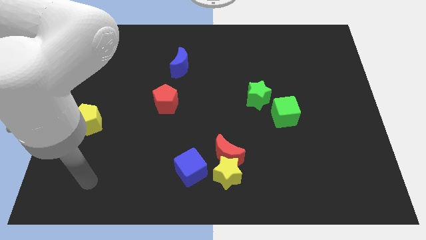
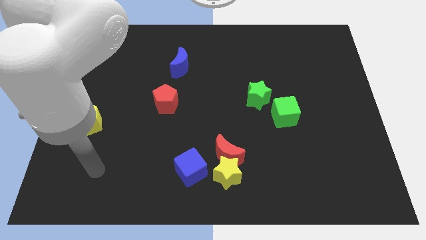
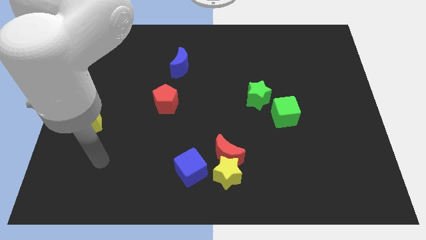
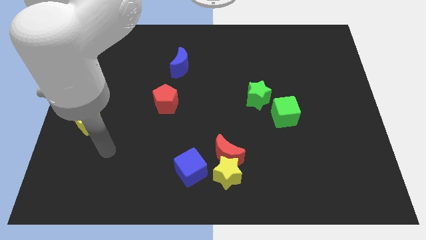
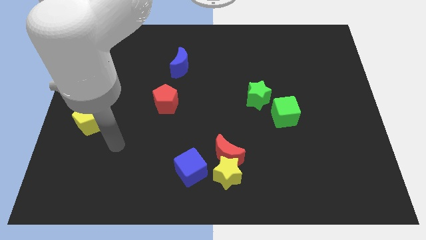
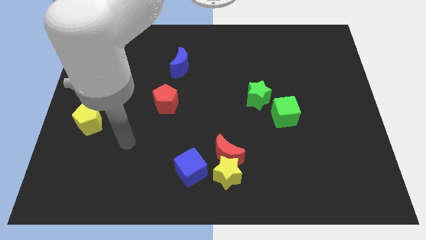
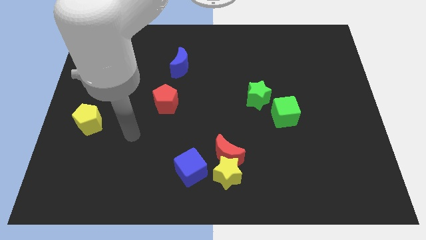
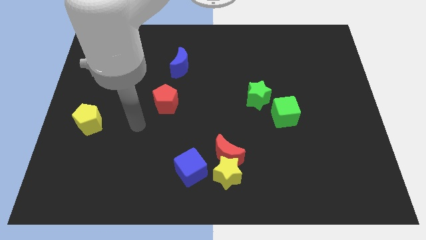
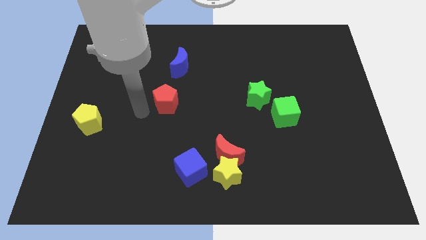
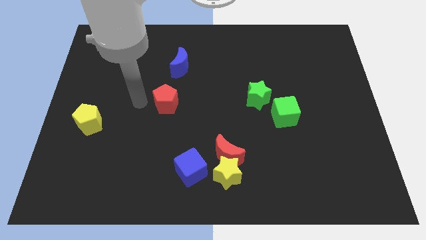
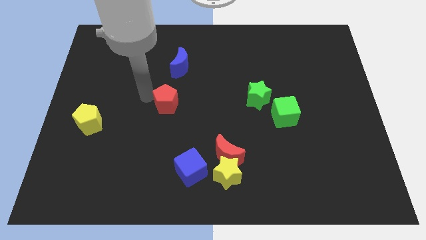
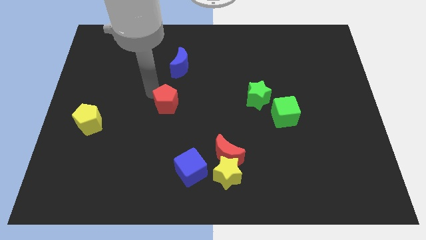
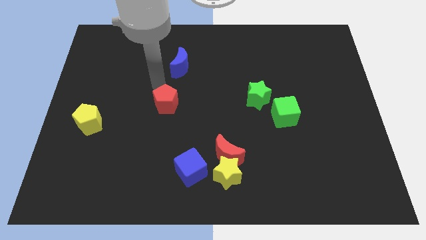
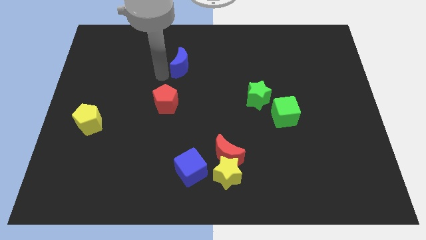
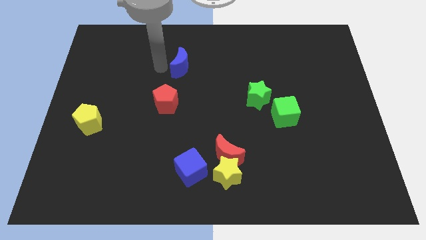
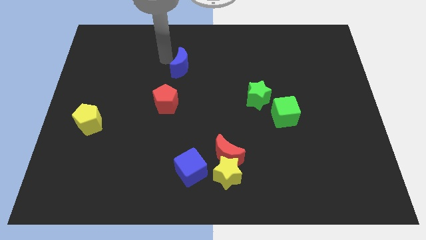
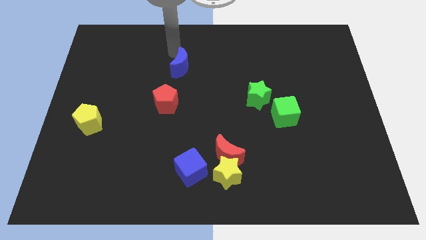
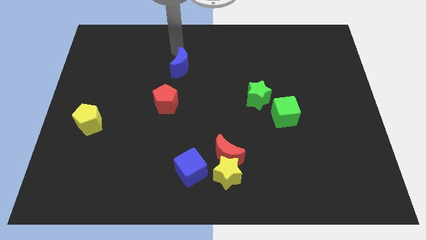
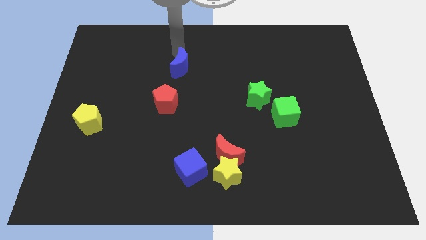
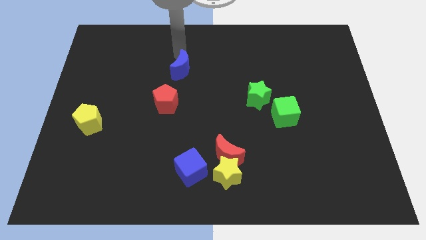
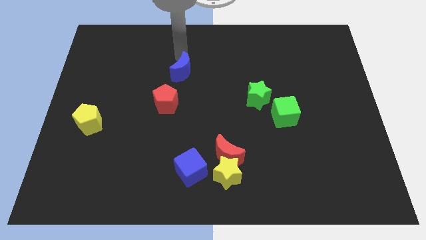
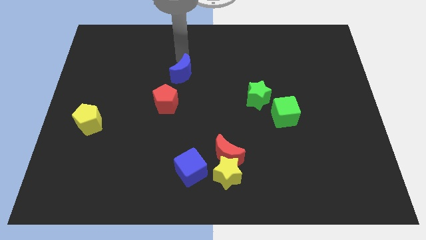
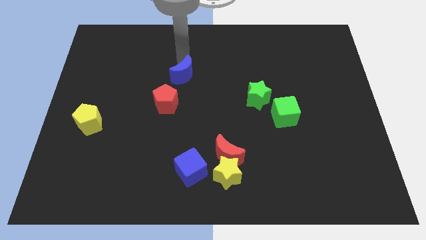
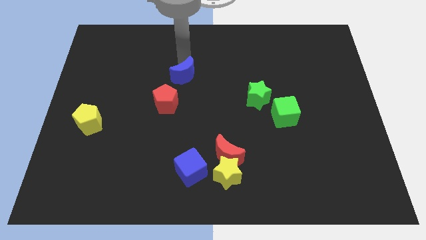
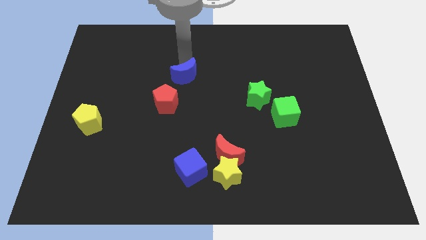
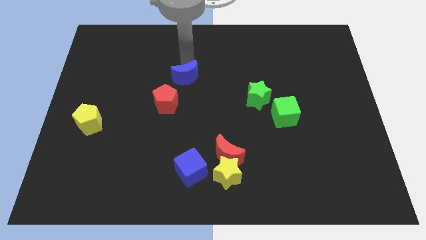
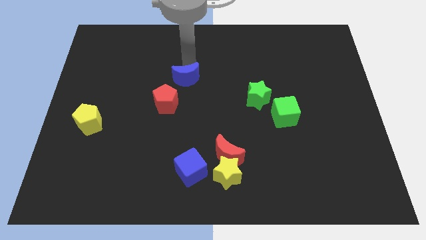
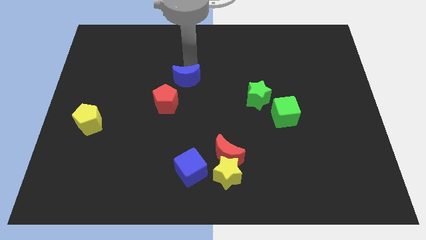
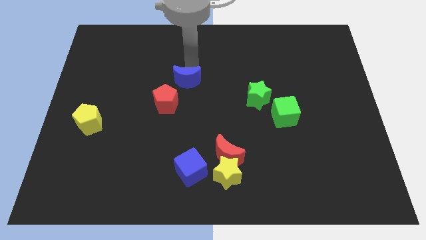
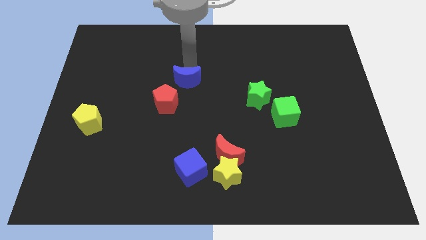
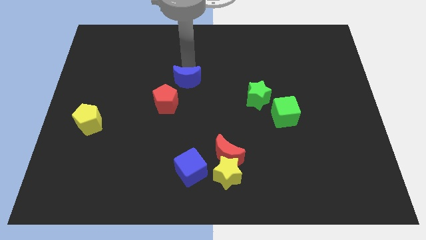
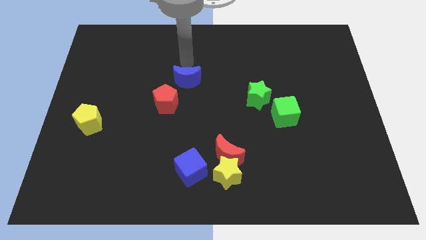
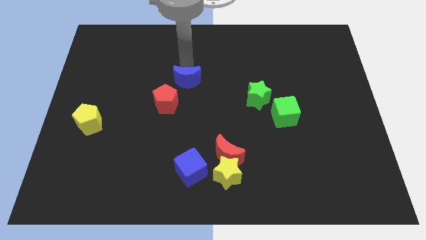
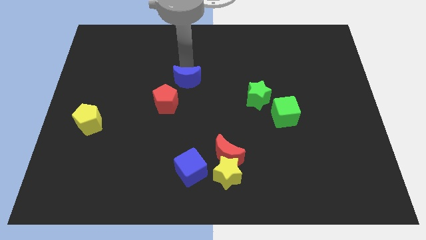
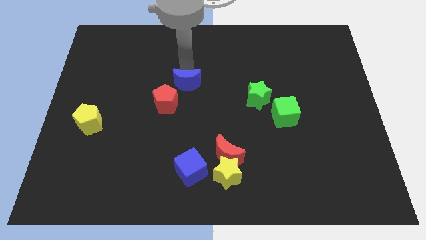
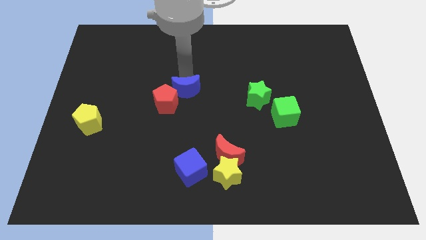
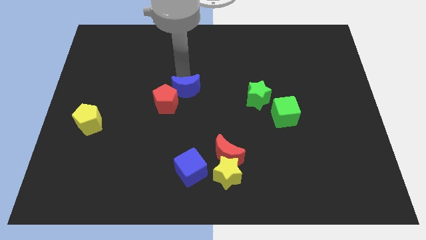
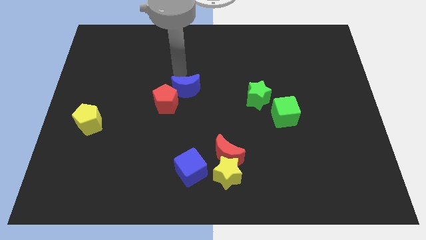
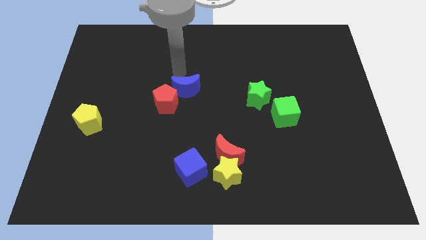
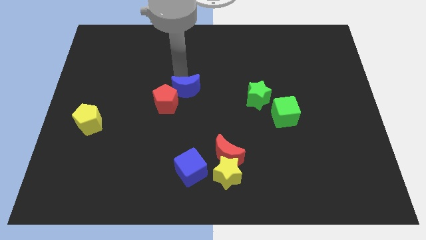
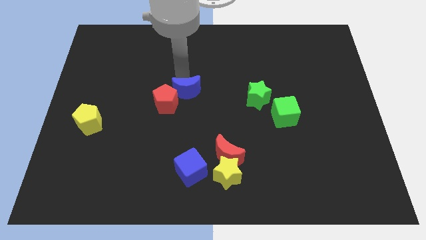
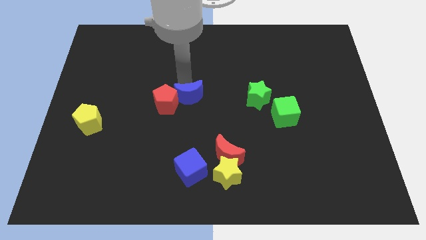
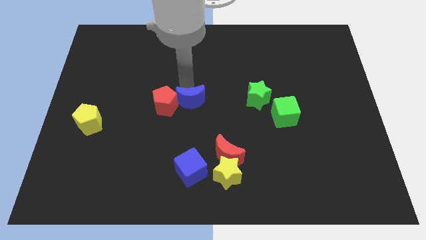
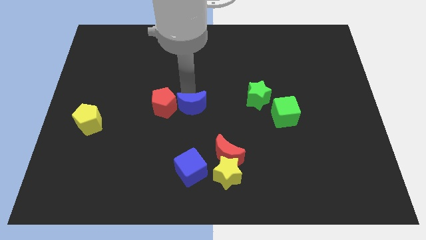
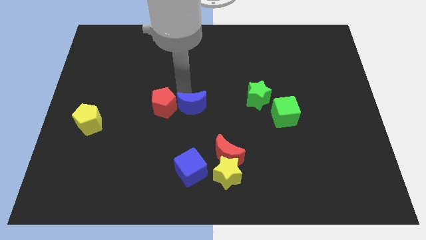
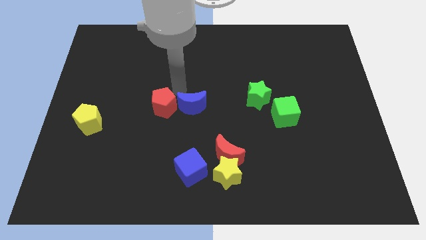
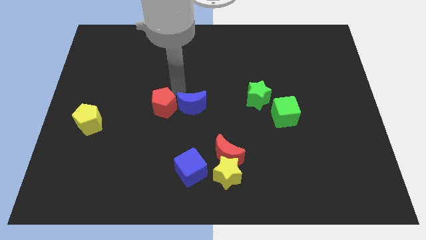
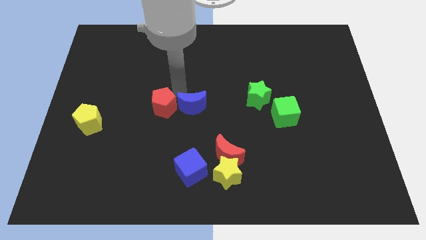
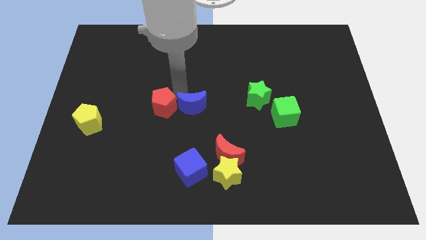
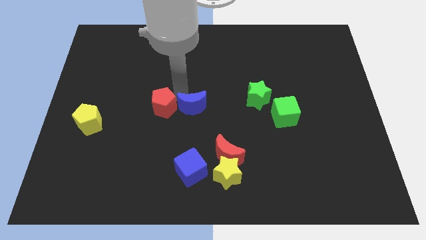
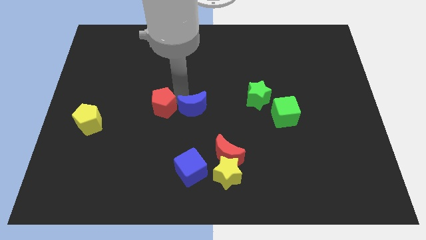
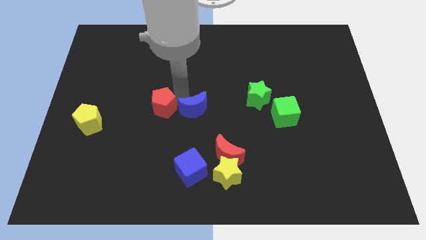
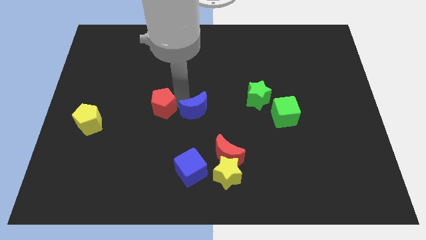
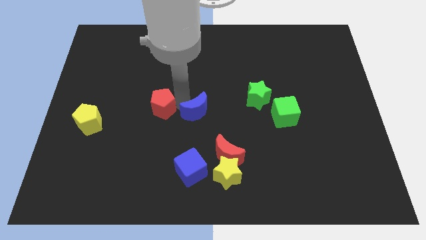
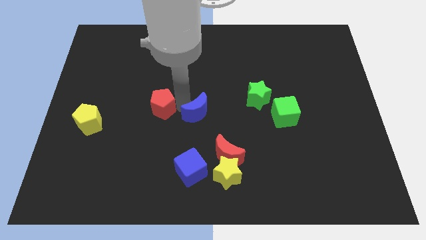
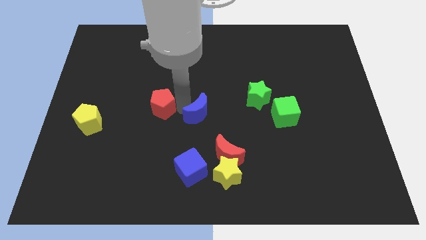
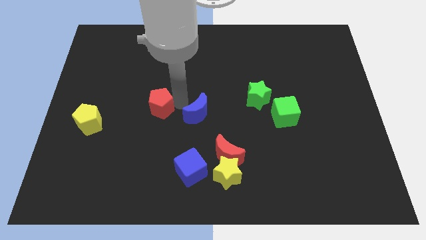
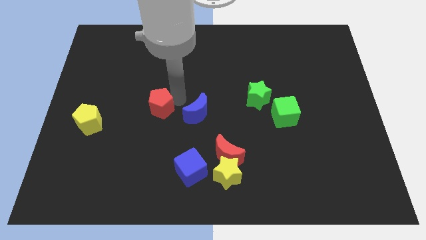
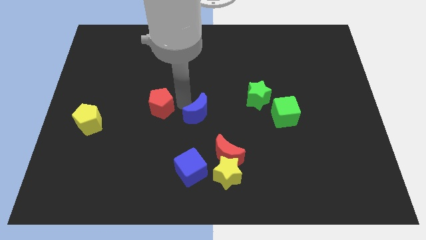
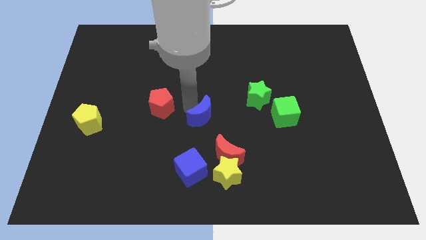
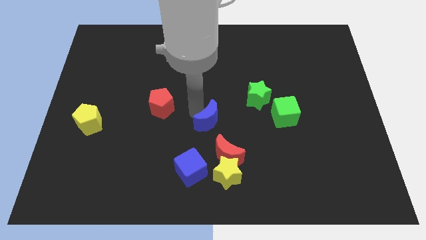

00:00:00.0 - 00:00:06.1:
push the blue moon above the yellow star

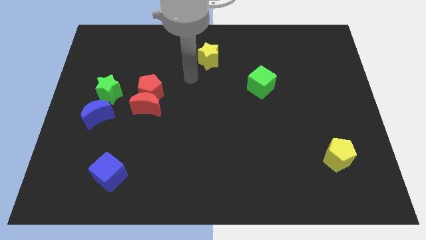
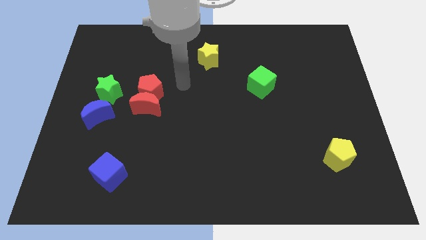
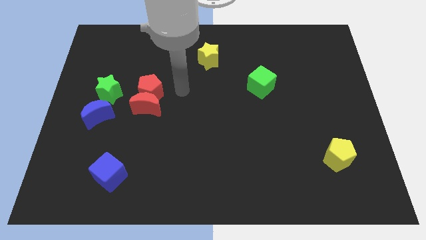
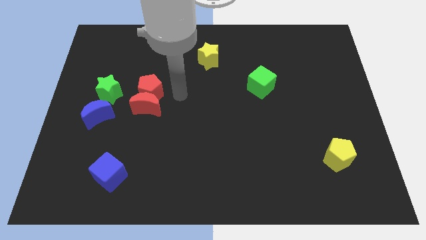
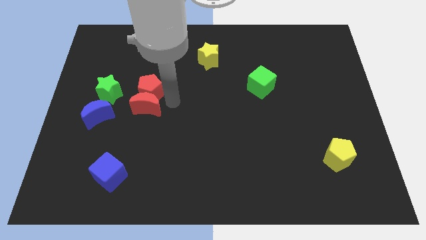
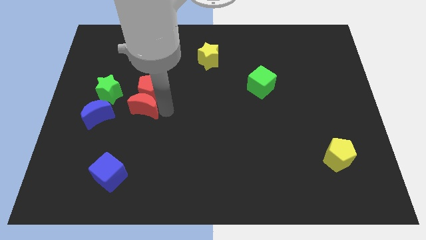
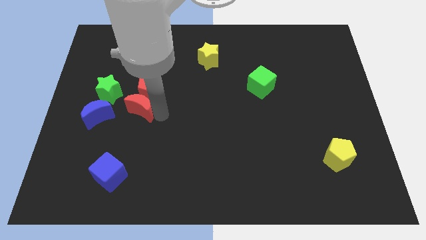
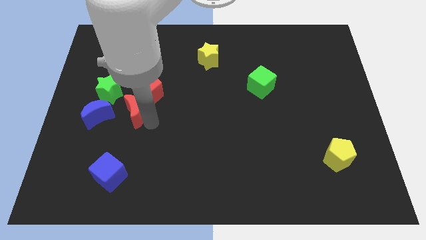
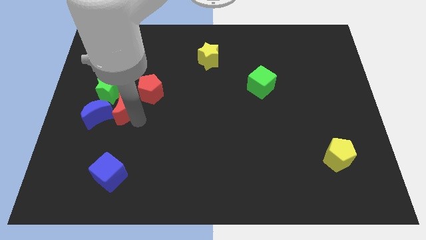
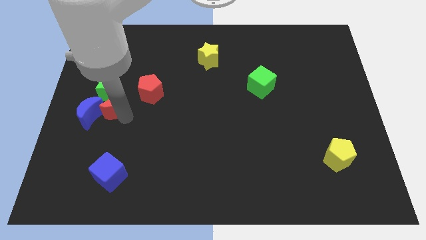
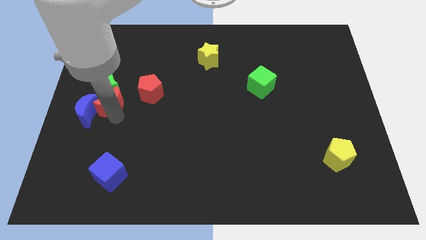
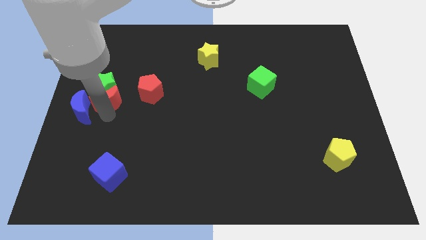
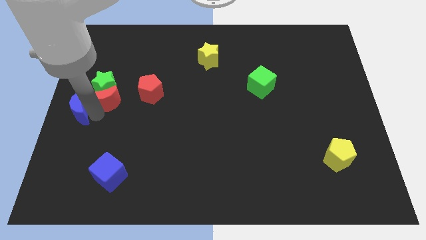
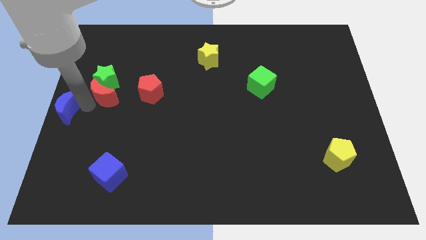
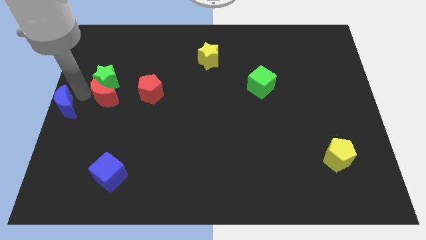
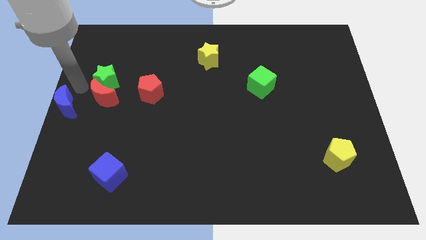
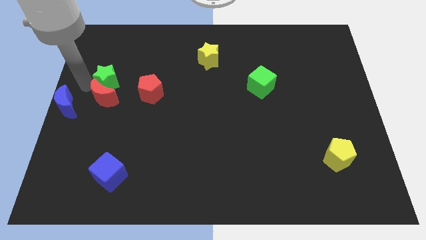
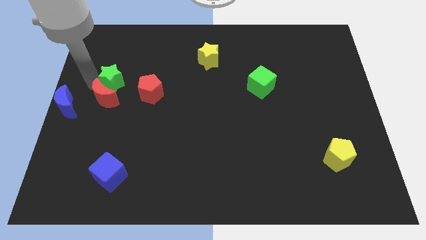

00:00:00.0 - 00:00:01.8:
move the green star to the top left side of the red pentagon
